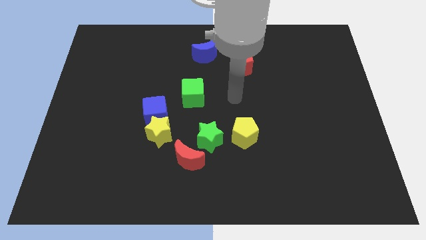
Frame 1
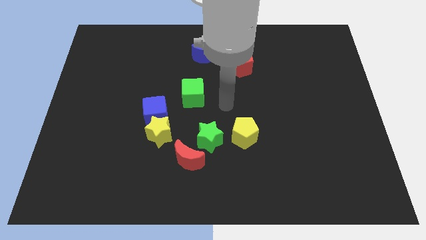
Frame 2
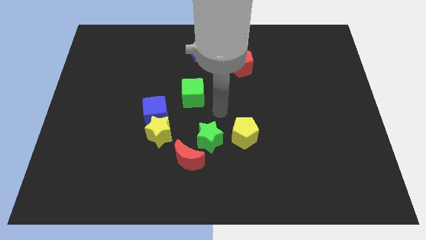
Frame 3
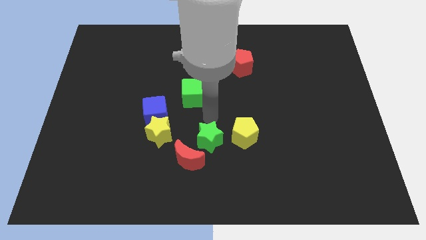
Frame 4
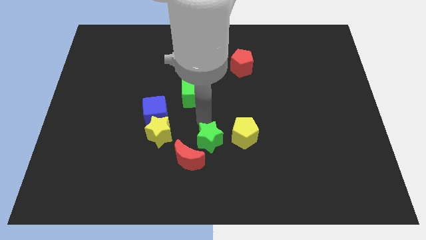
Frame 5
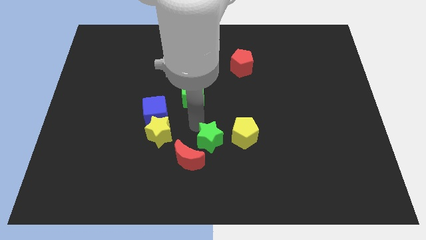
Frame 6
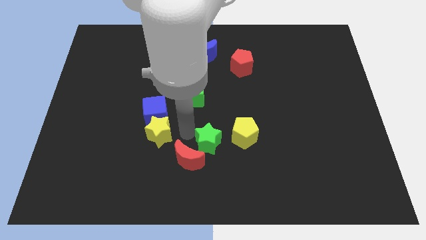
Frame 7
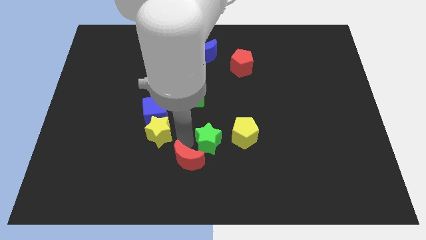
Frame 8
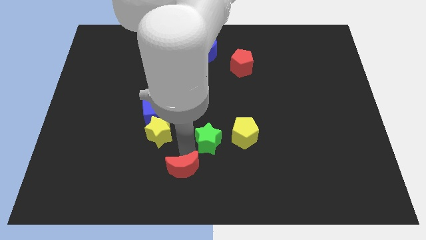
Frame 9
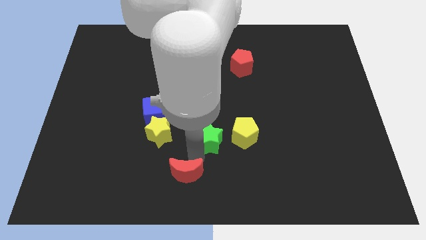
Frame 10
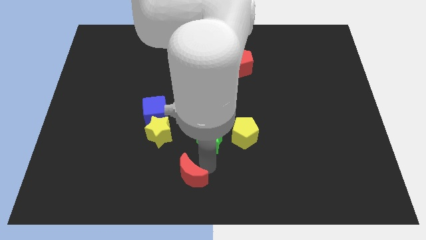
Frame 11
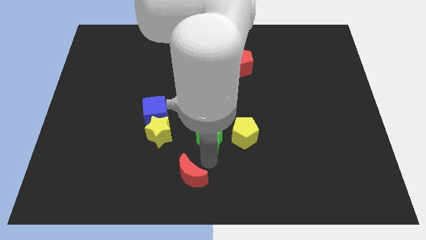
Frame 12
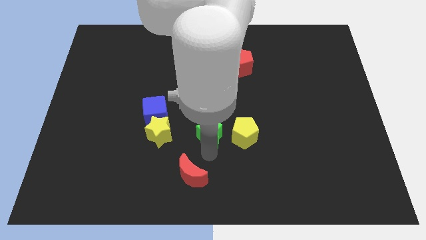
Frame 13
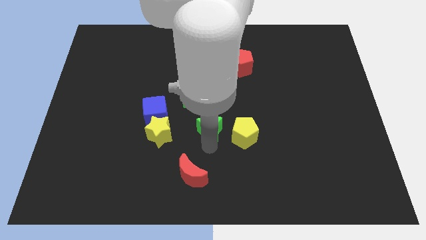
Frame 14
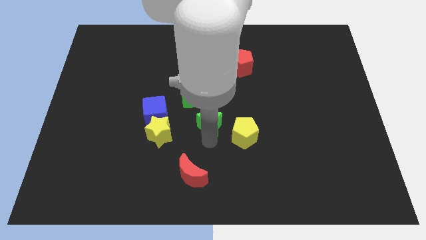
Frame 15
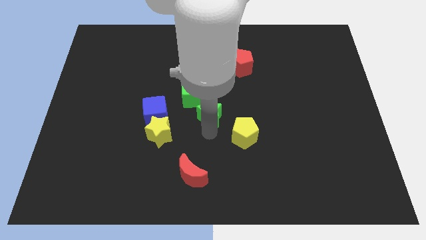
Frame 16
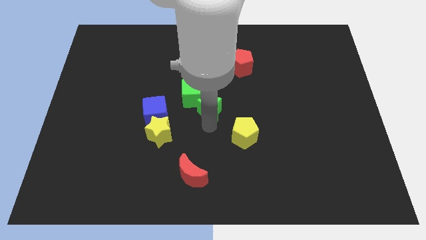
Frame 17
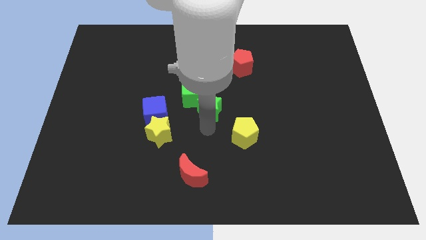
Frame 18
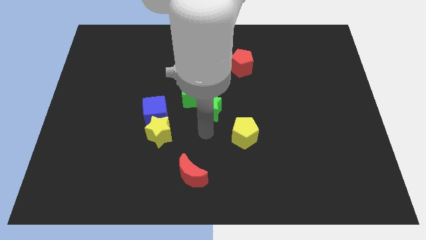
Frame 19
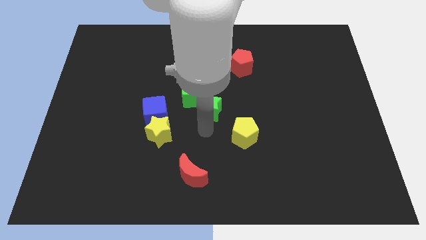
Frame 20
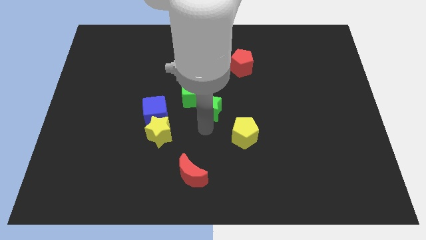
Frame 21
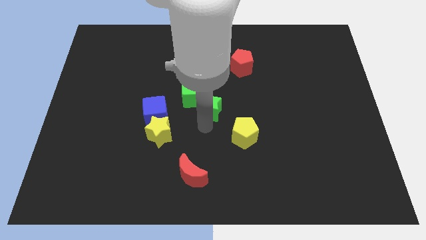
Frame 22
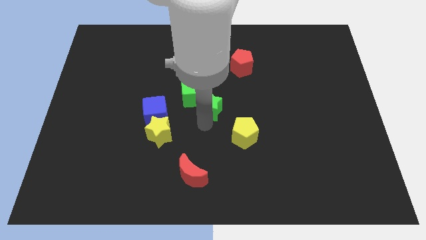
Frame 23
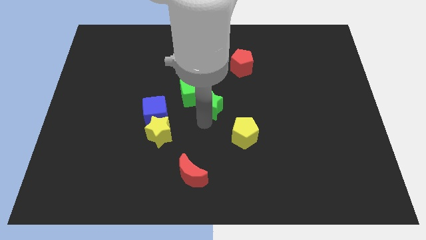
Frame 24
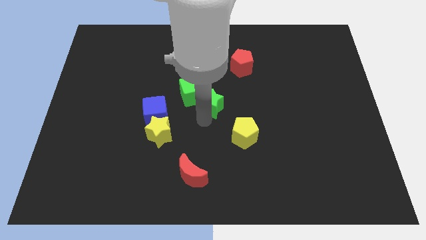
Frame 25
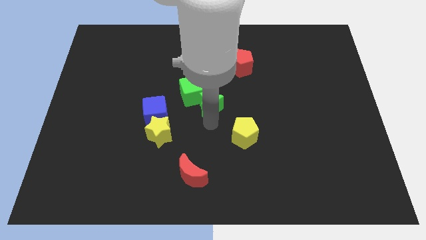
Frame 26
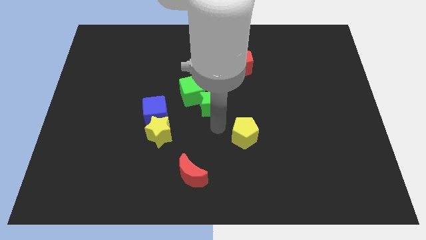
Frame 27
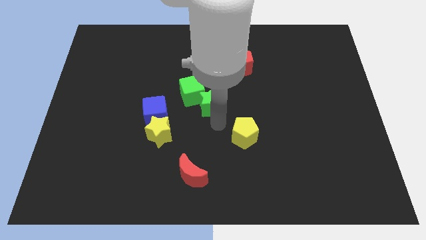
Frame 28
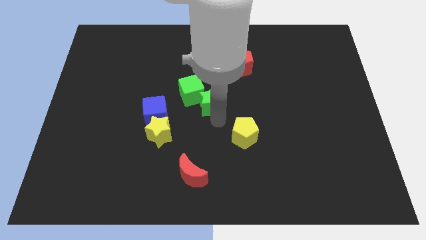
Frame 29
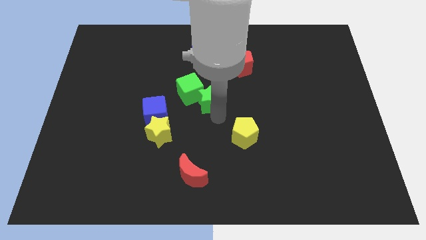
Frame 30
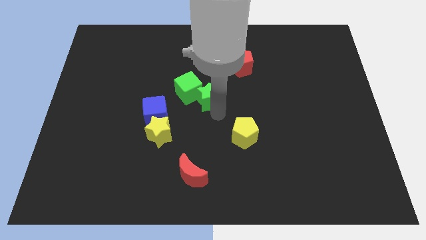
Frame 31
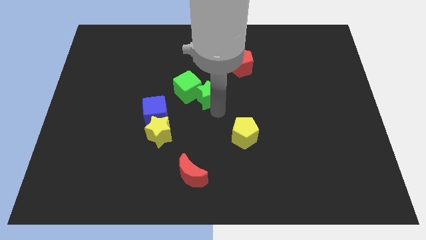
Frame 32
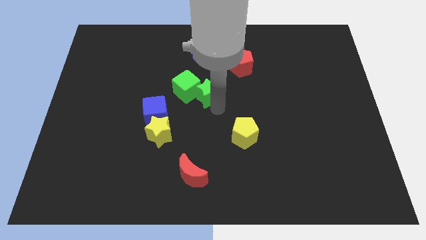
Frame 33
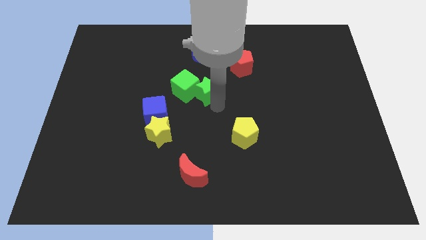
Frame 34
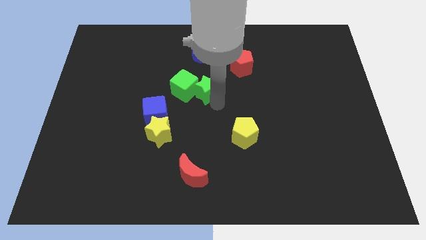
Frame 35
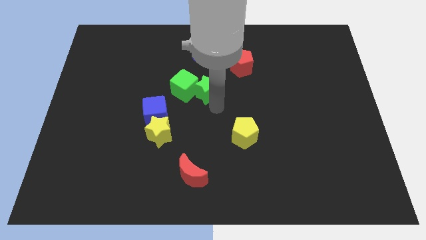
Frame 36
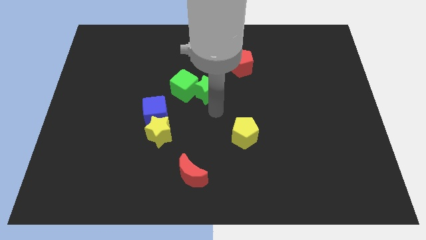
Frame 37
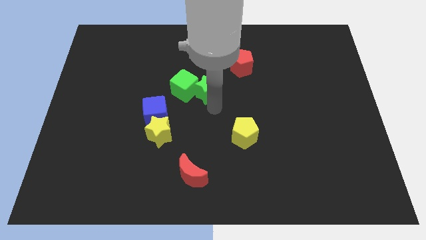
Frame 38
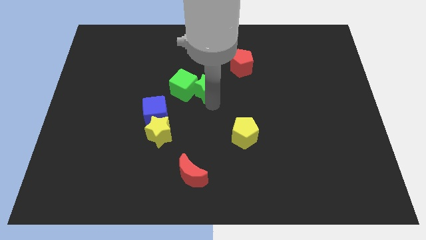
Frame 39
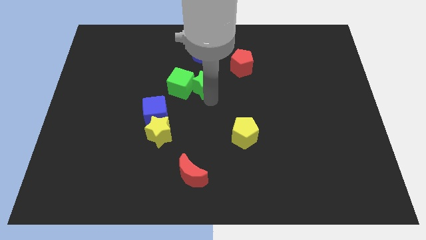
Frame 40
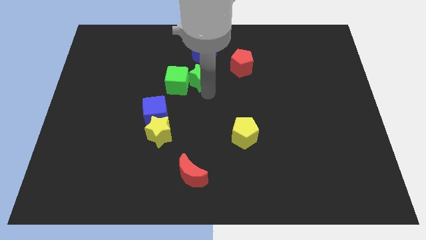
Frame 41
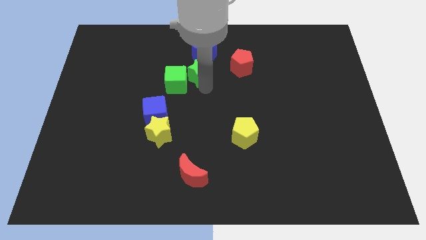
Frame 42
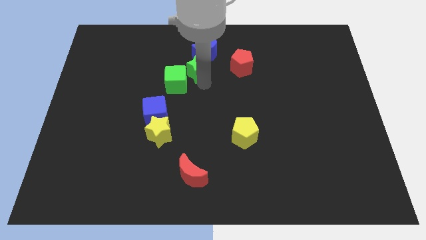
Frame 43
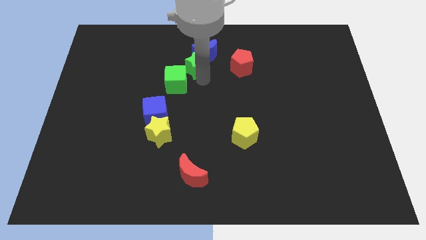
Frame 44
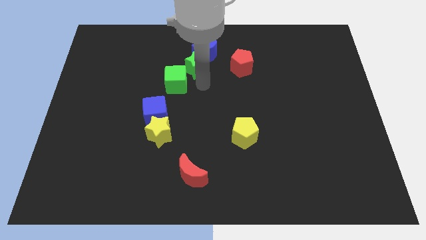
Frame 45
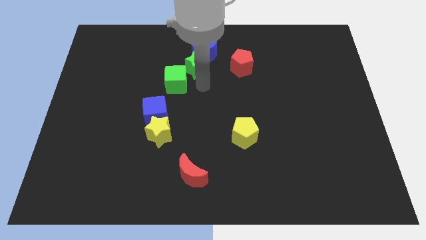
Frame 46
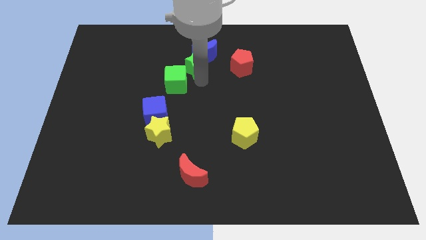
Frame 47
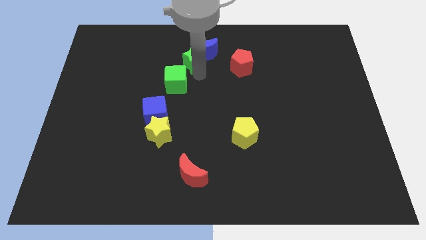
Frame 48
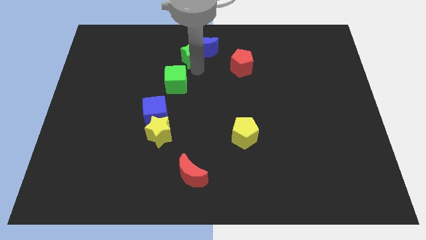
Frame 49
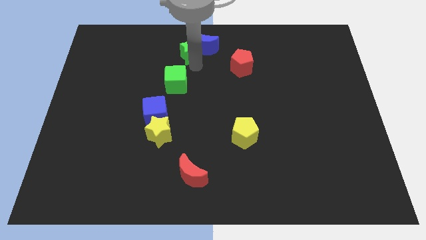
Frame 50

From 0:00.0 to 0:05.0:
move the green star to the top side
